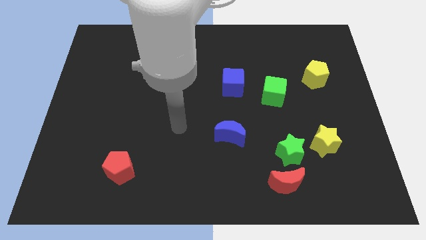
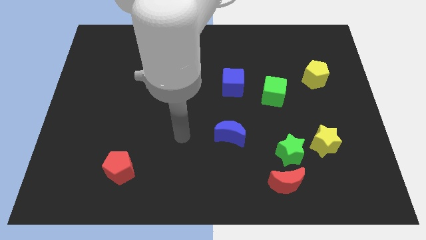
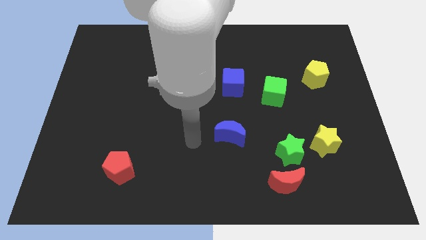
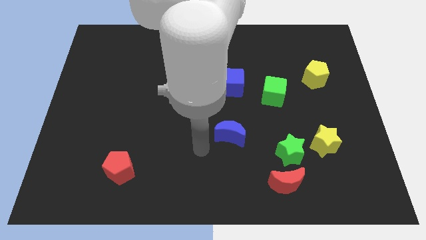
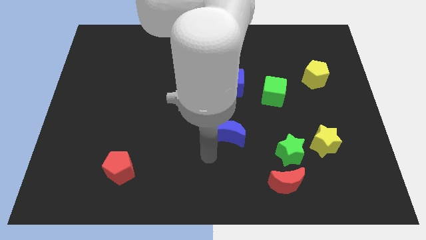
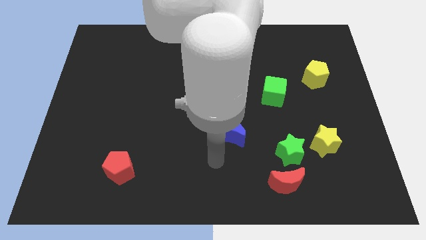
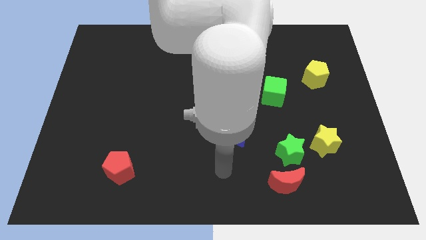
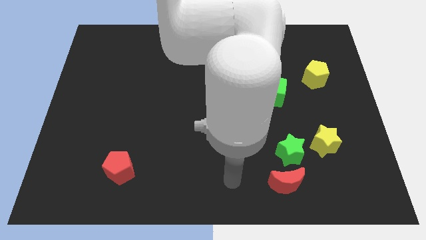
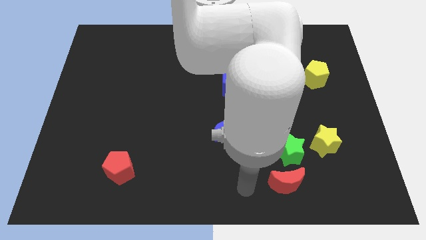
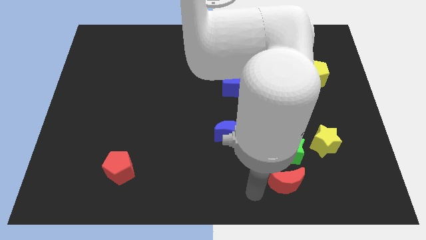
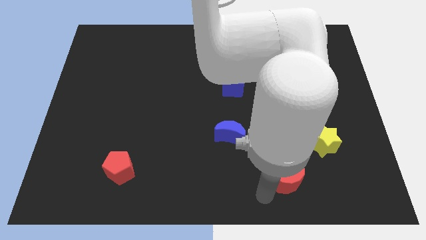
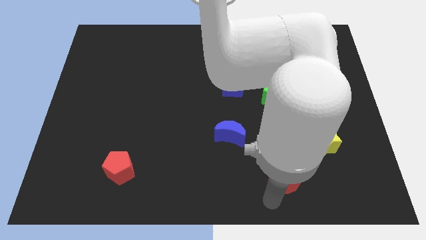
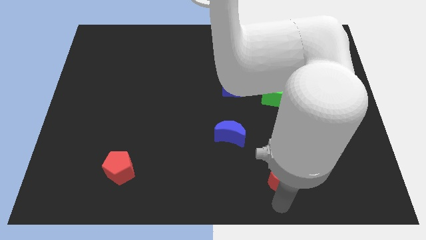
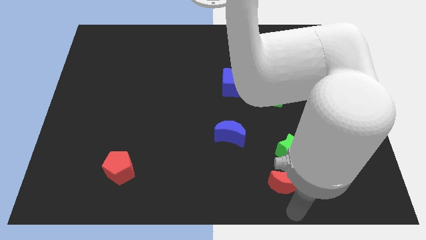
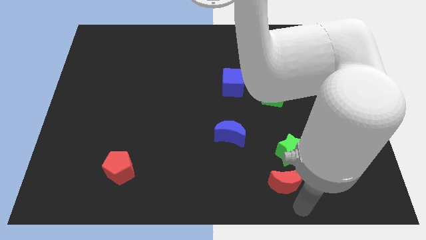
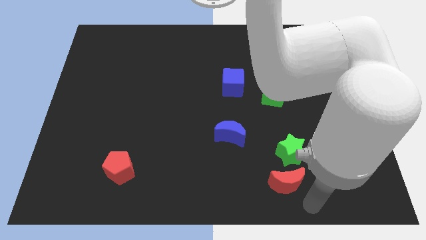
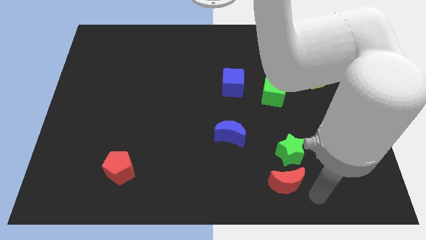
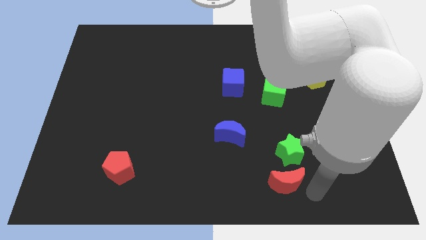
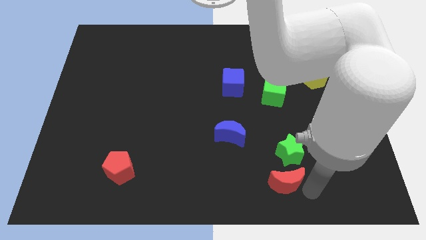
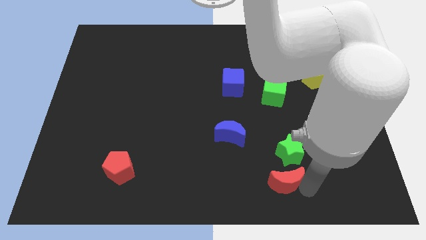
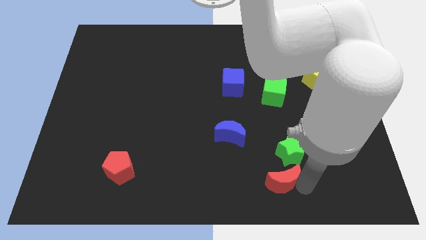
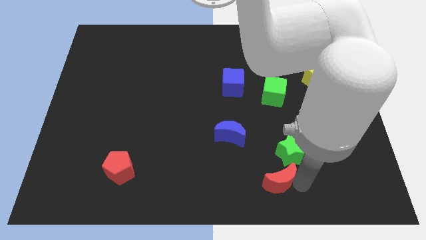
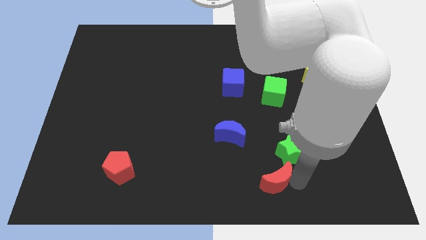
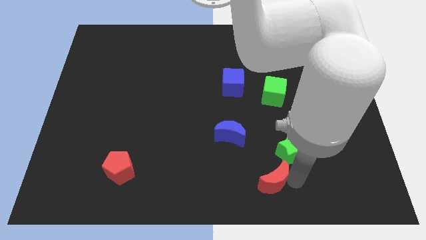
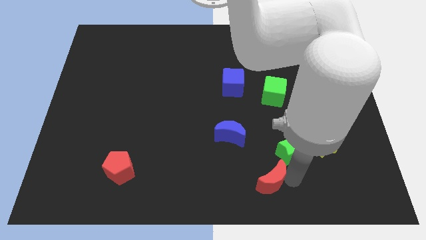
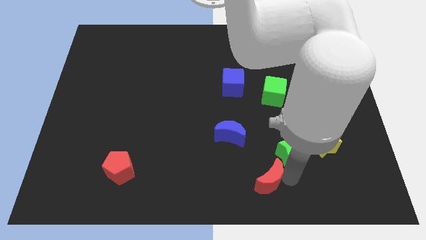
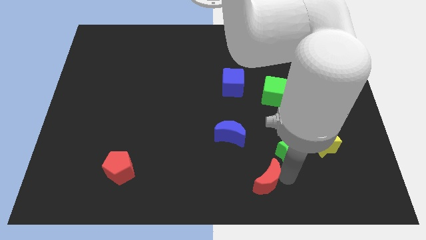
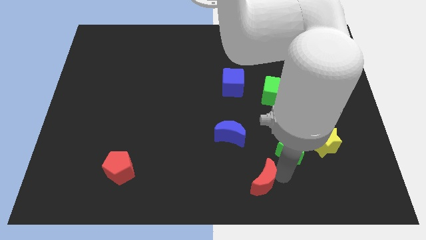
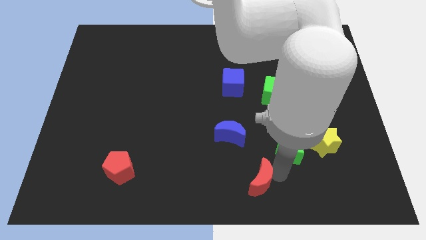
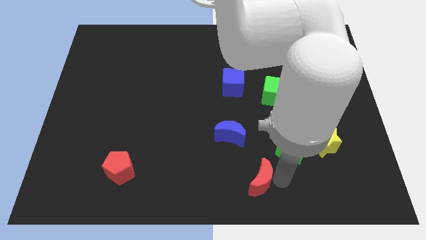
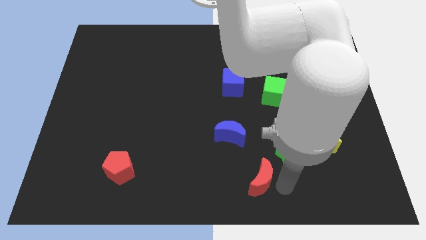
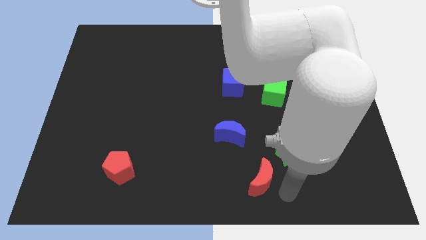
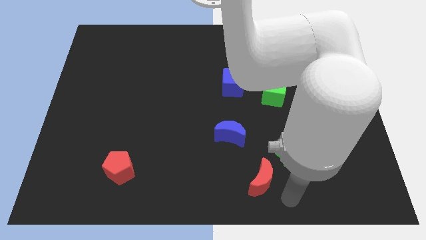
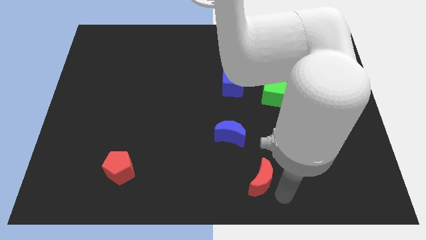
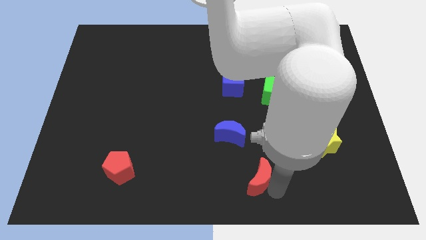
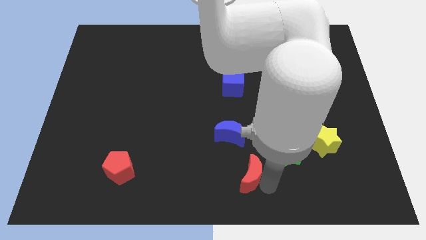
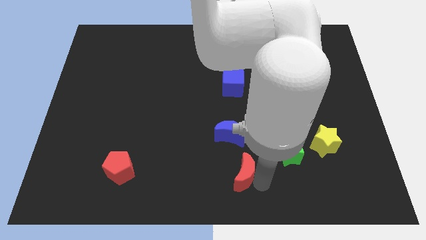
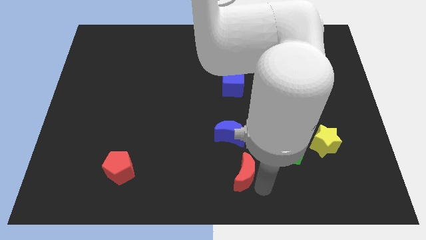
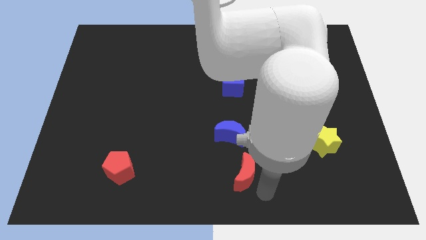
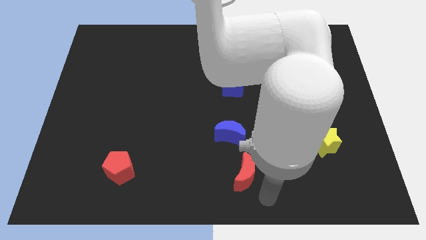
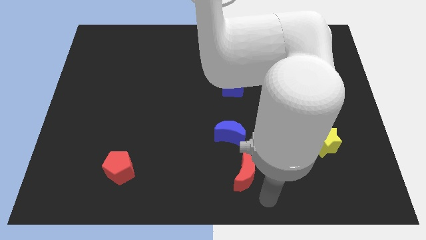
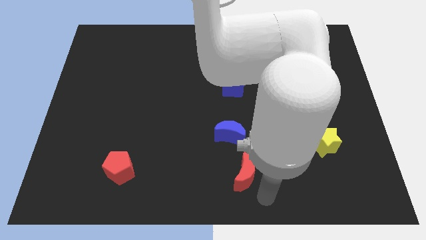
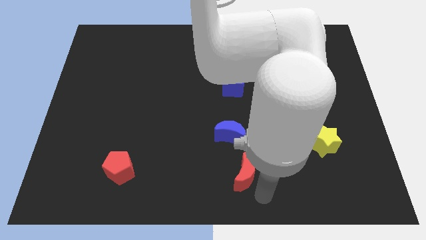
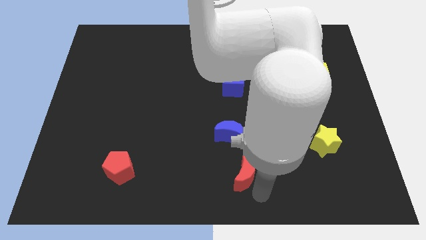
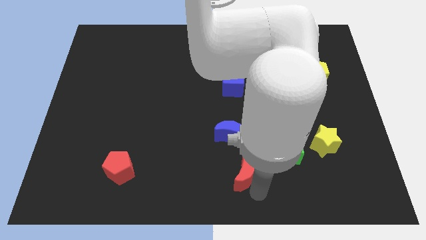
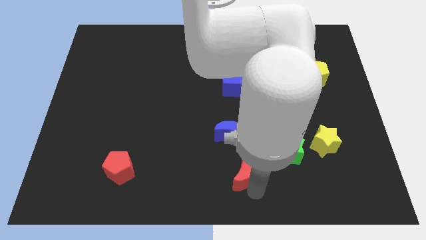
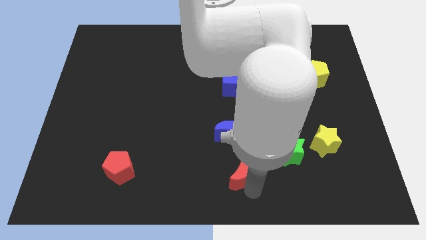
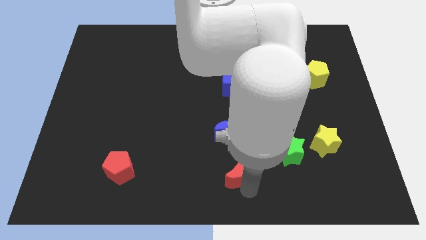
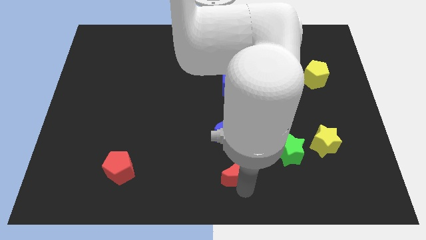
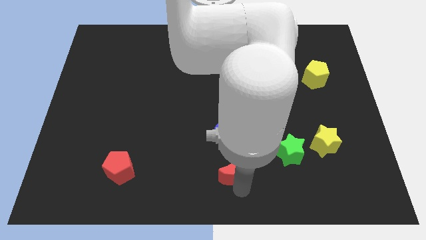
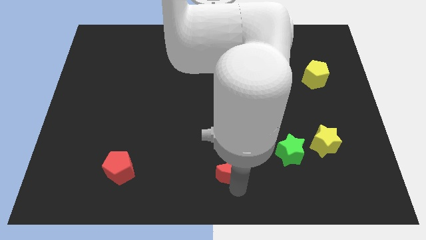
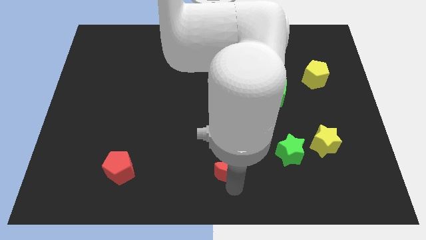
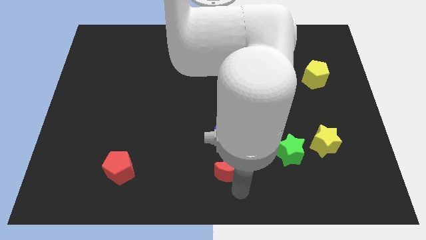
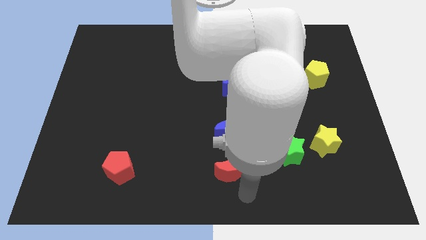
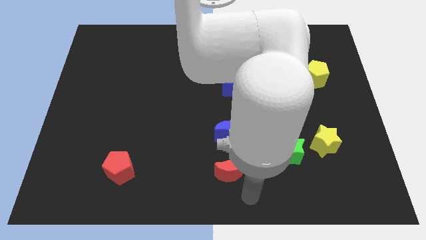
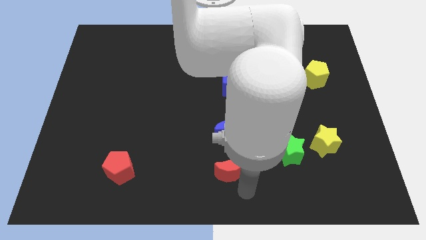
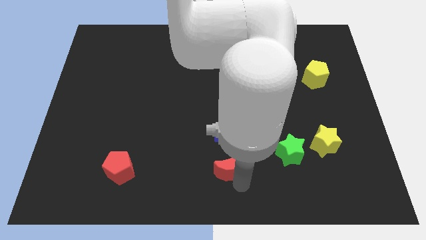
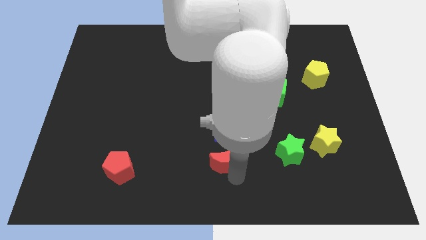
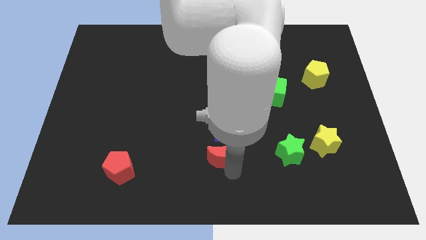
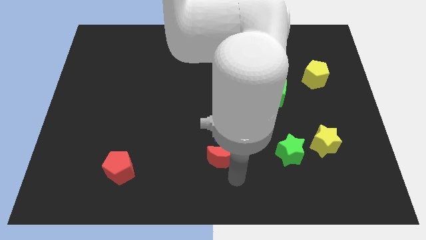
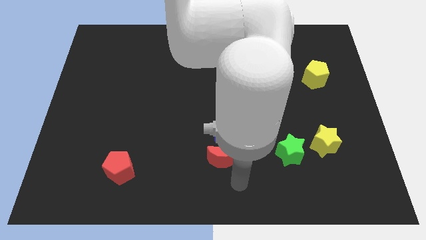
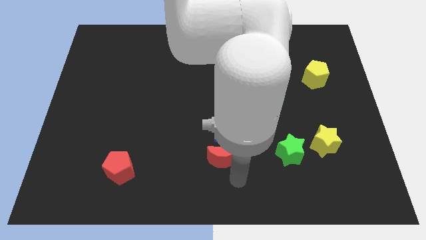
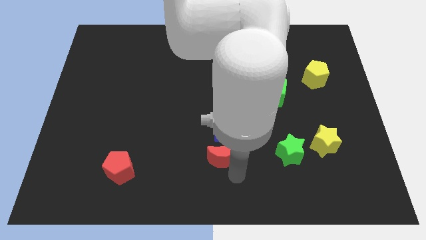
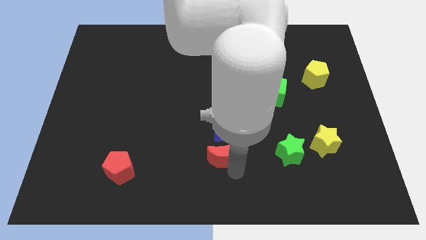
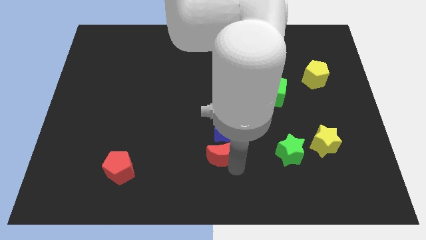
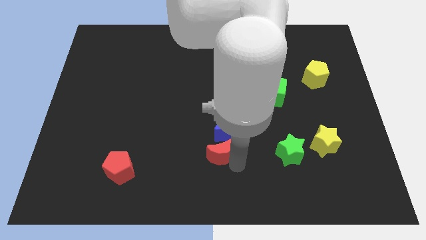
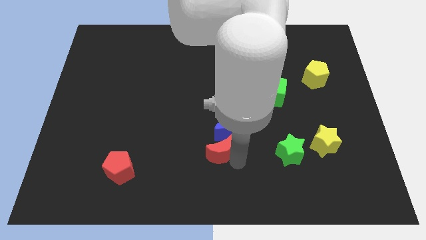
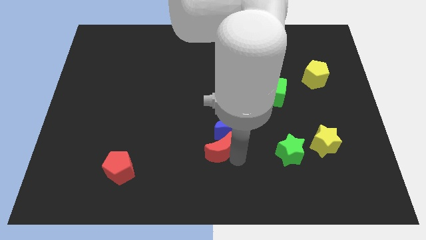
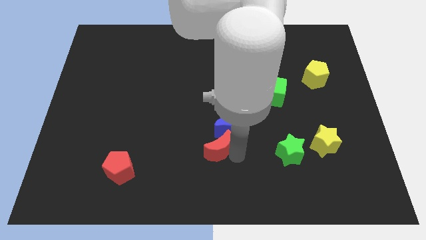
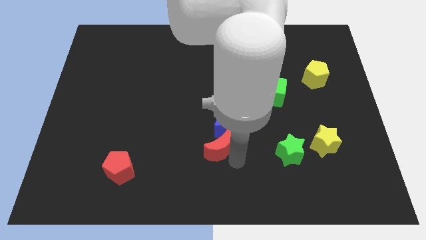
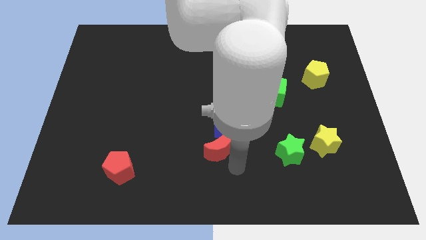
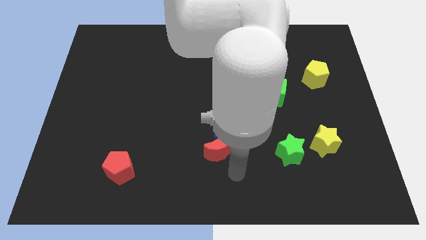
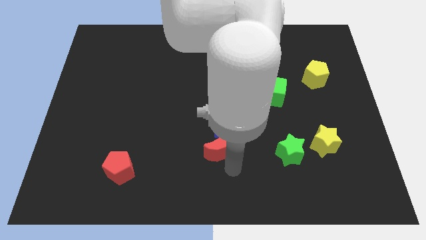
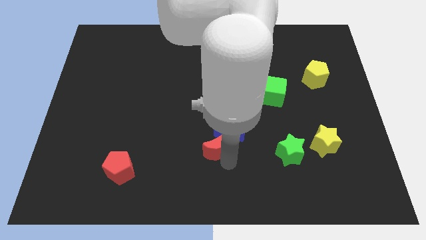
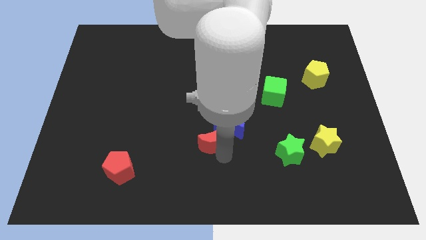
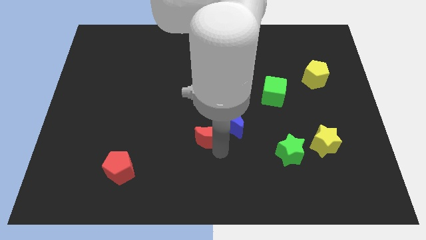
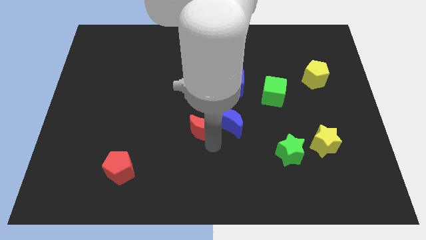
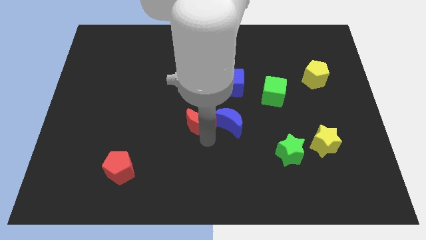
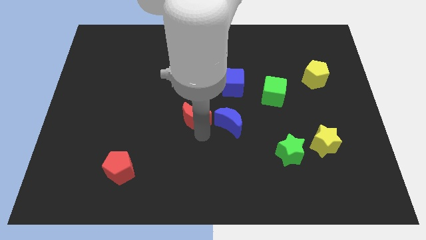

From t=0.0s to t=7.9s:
push the red moon diagonally up and to the left of the blue moon
